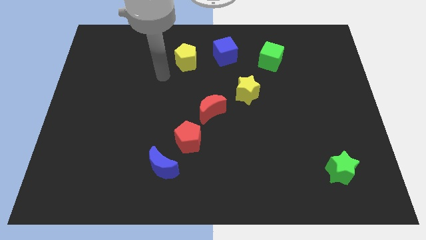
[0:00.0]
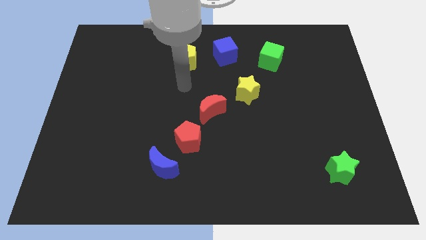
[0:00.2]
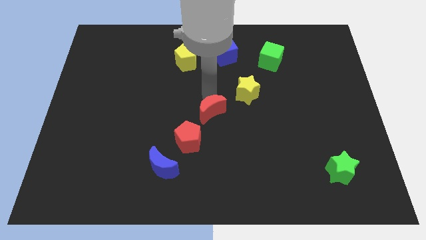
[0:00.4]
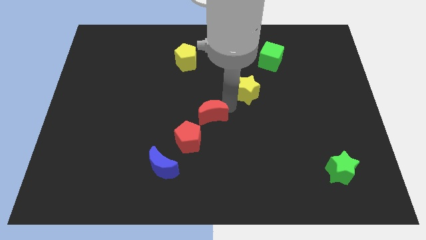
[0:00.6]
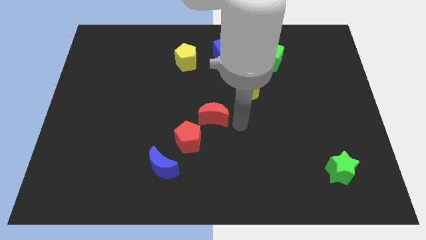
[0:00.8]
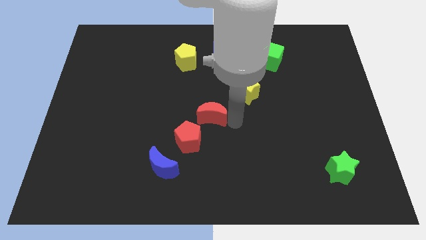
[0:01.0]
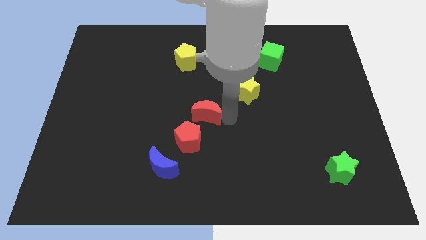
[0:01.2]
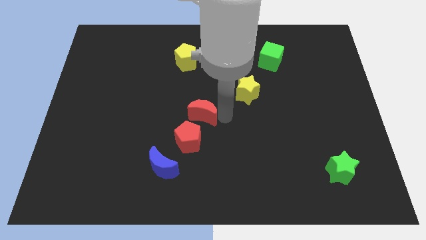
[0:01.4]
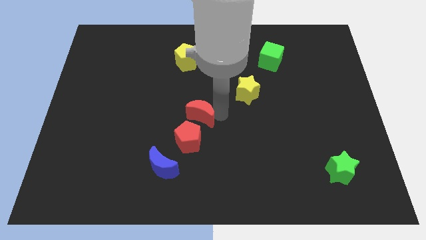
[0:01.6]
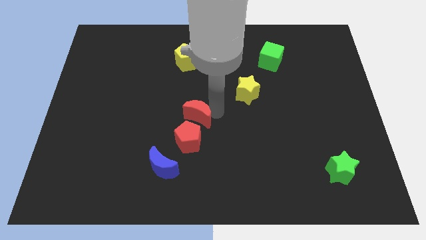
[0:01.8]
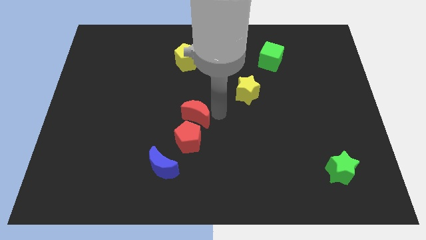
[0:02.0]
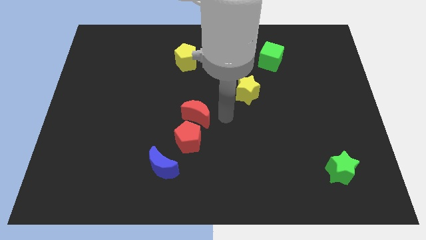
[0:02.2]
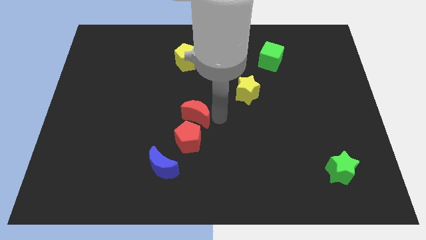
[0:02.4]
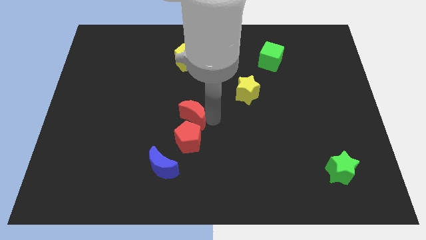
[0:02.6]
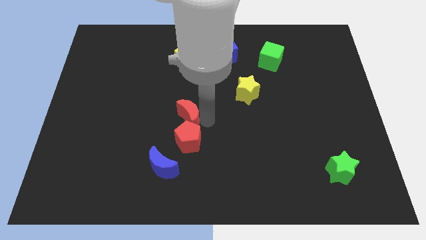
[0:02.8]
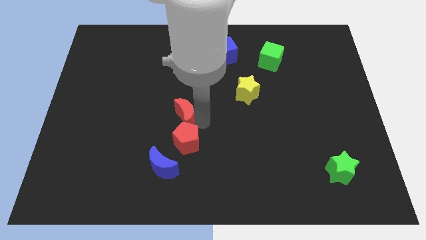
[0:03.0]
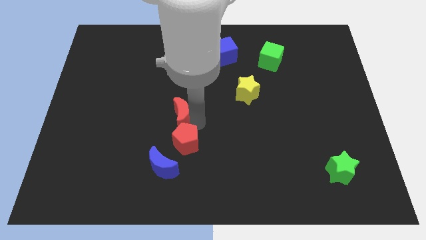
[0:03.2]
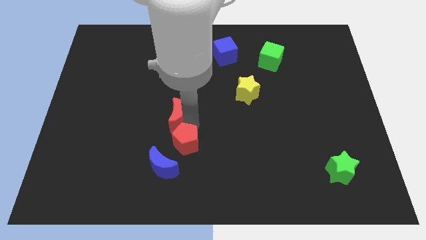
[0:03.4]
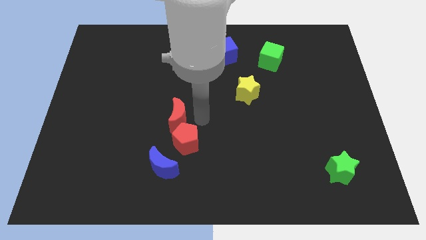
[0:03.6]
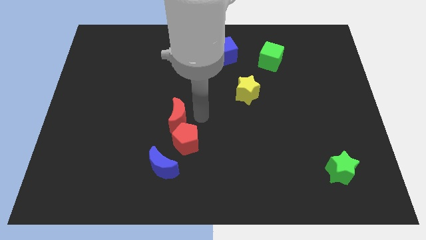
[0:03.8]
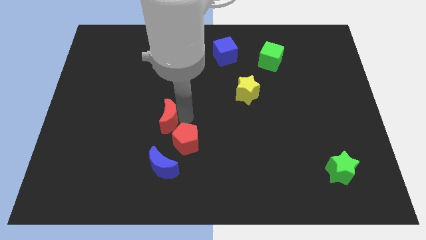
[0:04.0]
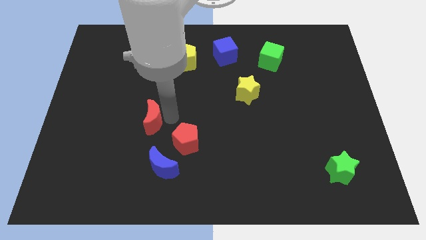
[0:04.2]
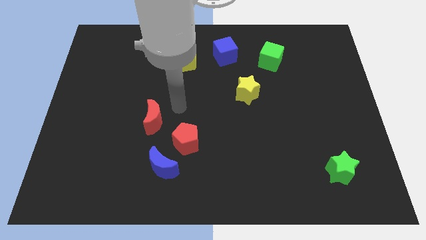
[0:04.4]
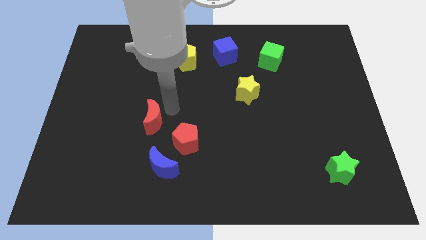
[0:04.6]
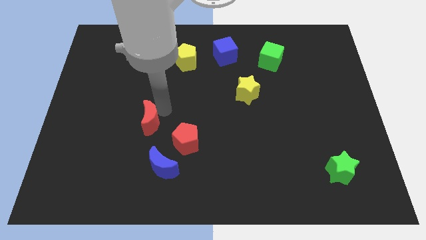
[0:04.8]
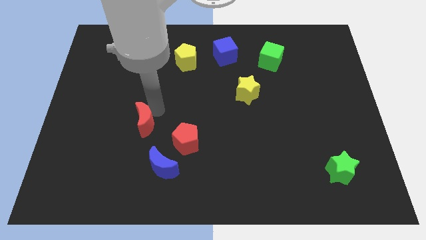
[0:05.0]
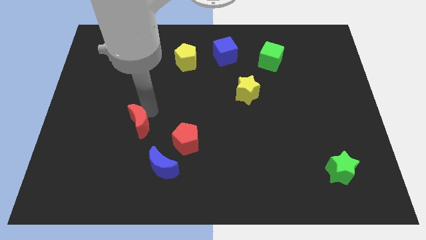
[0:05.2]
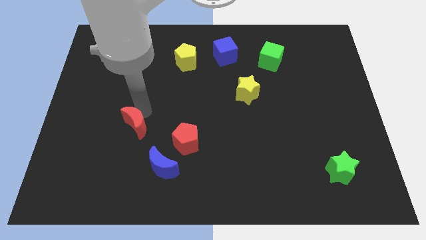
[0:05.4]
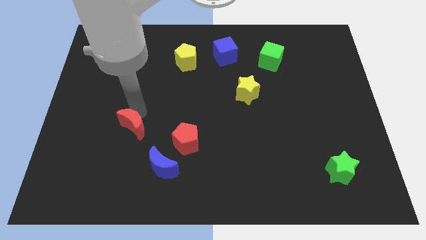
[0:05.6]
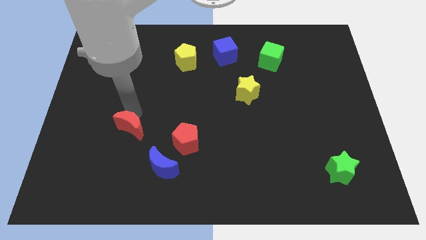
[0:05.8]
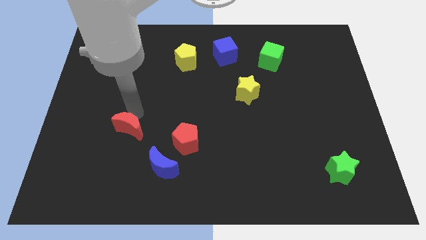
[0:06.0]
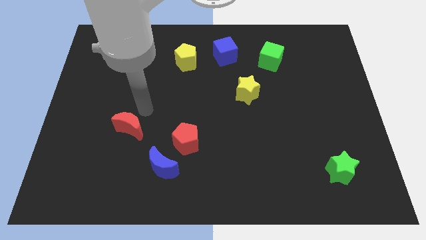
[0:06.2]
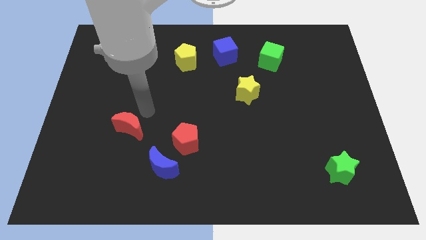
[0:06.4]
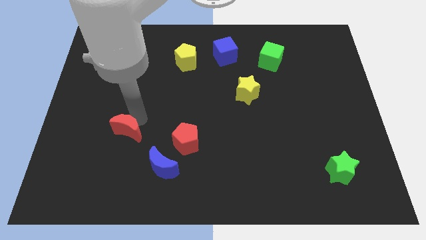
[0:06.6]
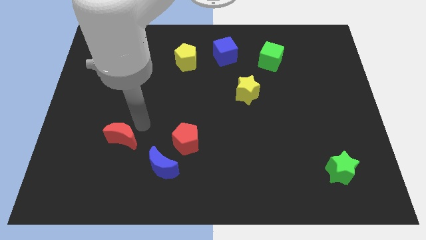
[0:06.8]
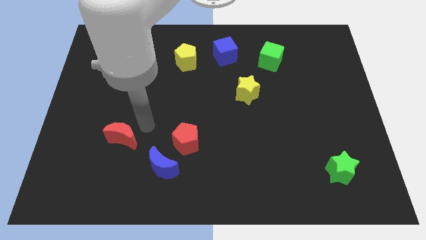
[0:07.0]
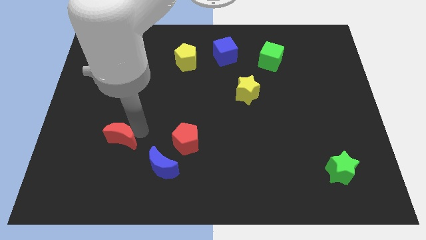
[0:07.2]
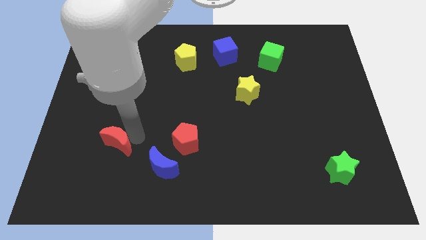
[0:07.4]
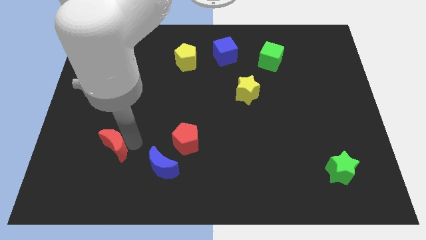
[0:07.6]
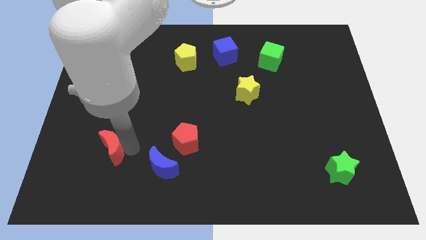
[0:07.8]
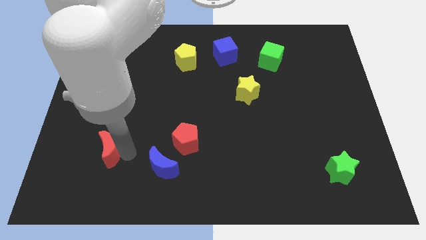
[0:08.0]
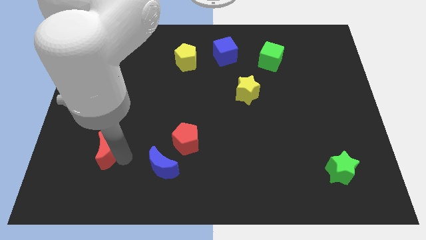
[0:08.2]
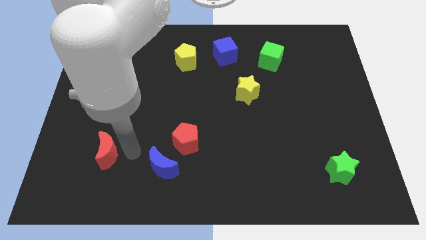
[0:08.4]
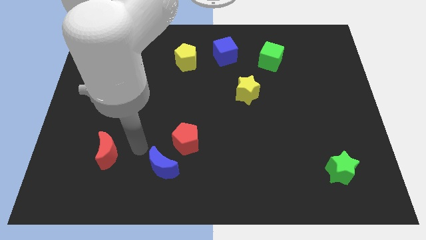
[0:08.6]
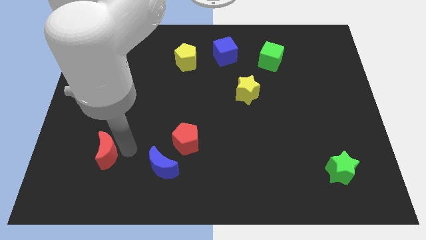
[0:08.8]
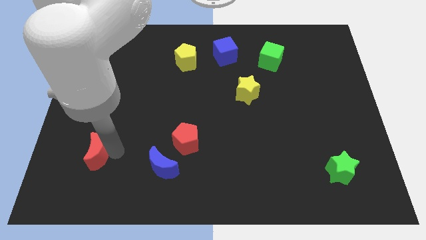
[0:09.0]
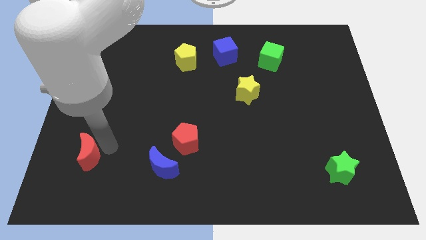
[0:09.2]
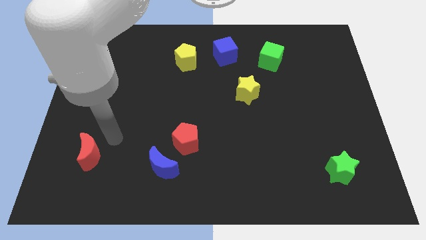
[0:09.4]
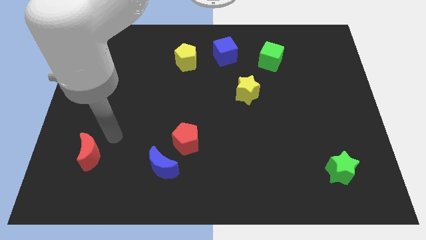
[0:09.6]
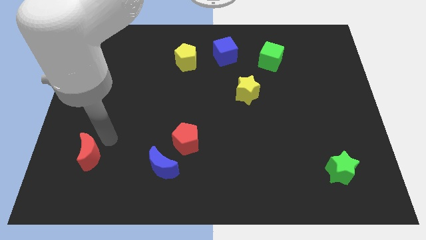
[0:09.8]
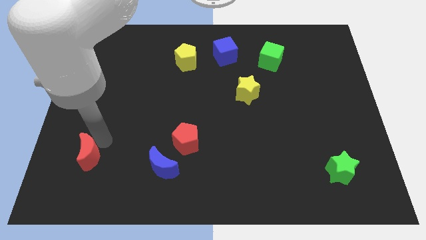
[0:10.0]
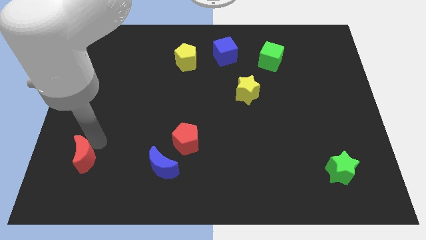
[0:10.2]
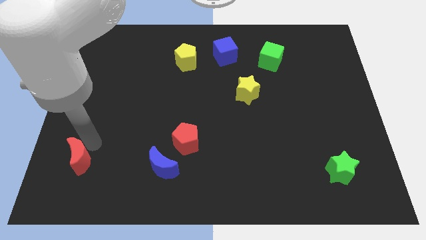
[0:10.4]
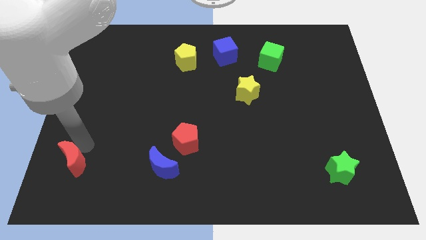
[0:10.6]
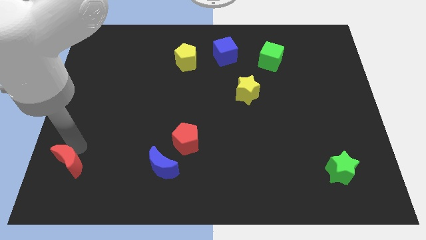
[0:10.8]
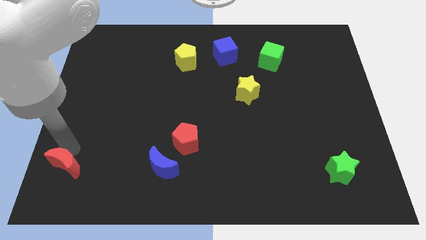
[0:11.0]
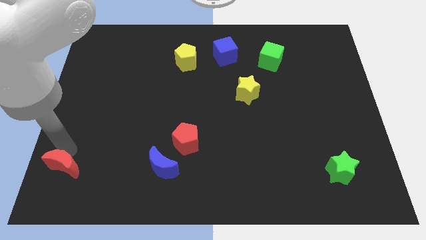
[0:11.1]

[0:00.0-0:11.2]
slide the red moon to the bottom left corner

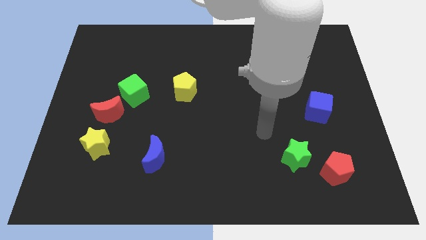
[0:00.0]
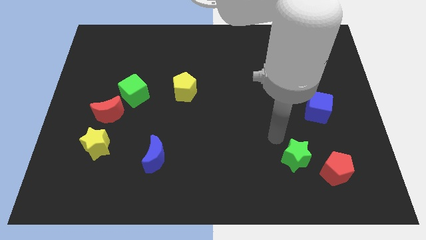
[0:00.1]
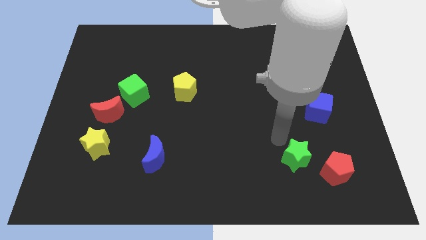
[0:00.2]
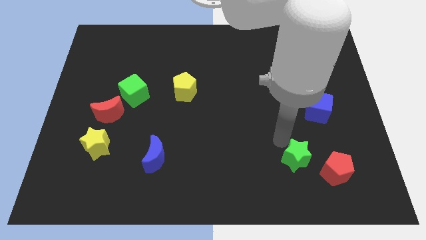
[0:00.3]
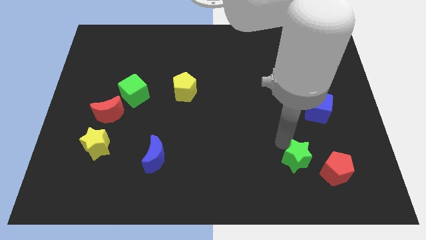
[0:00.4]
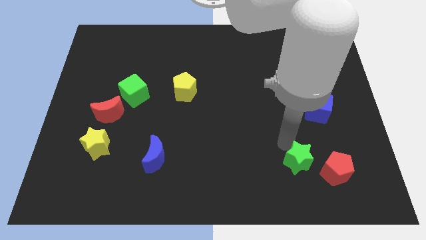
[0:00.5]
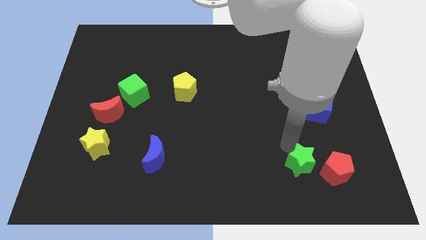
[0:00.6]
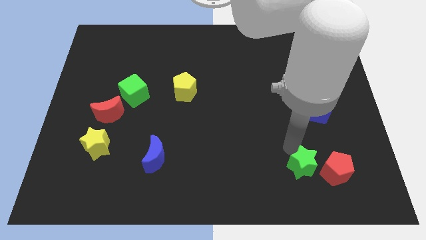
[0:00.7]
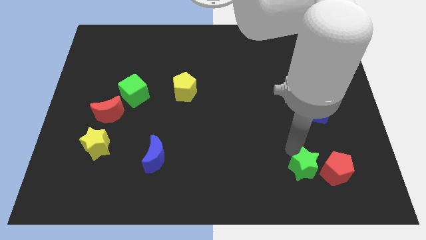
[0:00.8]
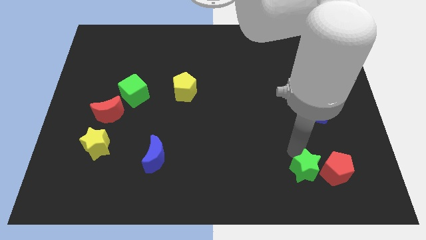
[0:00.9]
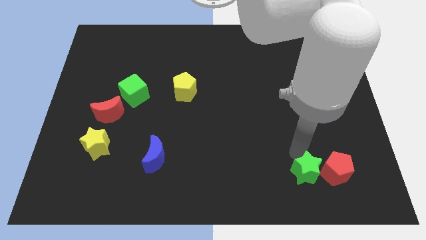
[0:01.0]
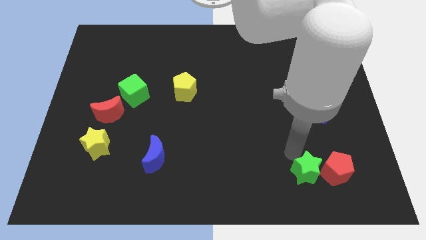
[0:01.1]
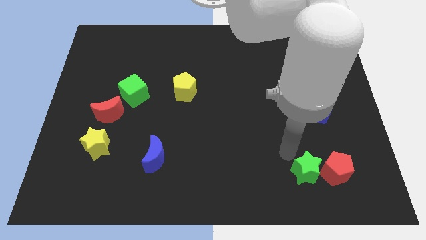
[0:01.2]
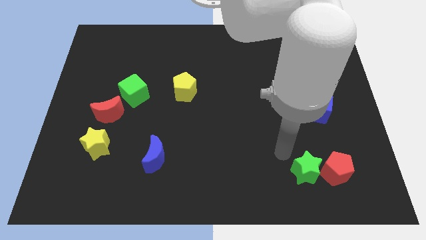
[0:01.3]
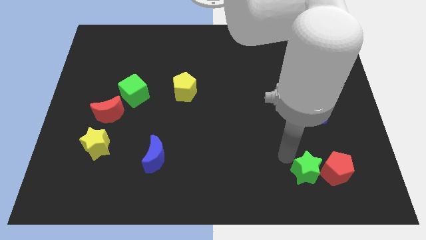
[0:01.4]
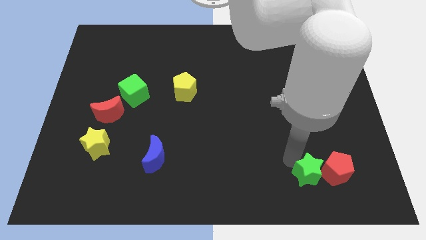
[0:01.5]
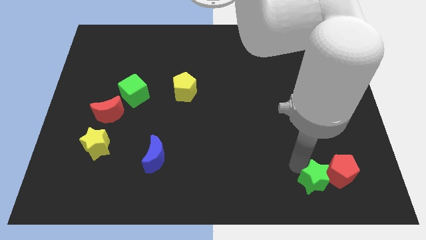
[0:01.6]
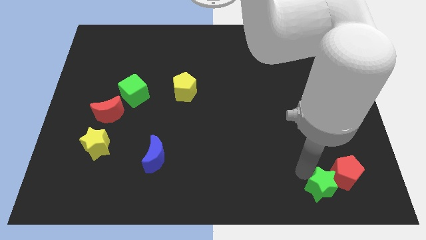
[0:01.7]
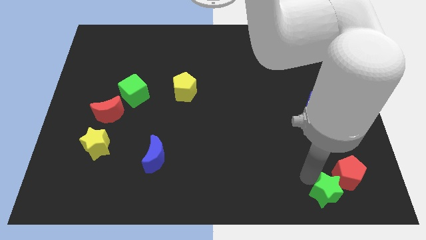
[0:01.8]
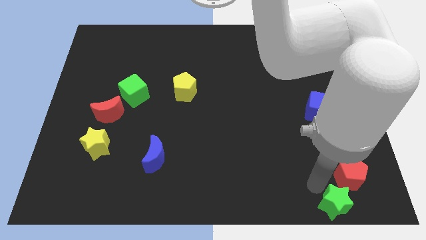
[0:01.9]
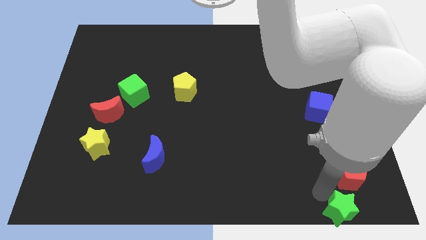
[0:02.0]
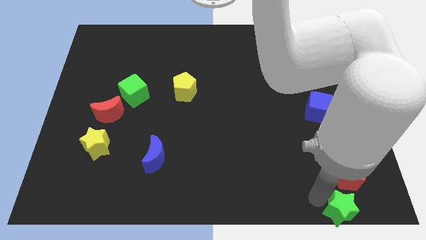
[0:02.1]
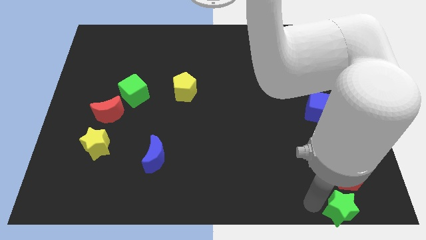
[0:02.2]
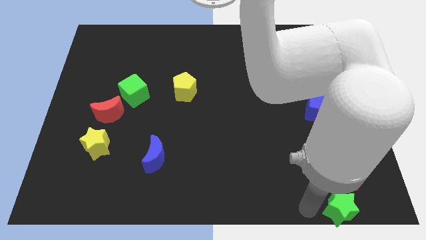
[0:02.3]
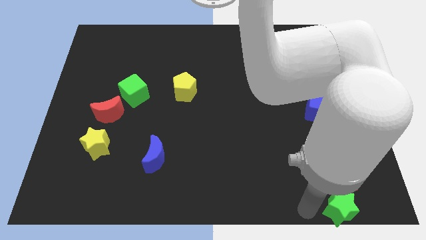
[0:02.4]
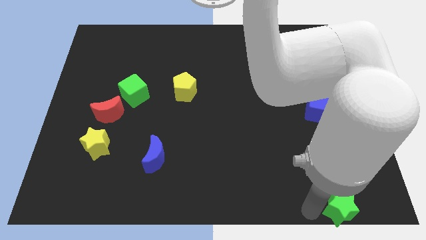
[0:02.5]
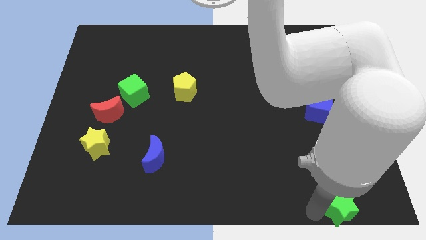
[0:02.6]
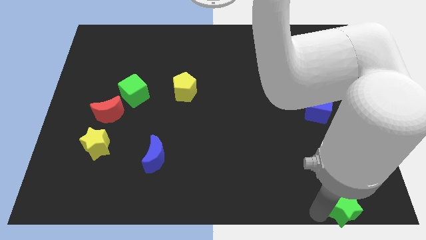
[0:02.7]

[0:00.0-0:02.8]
put the green star to the bottom right of the board
